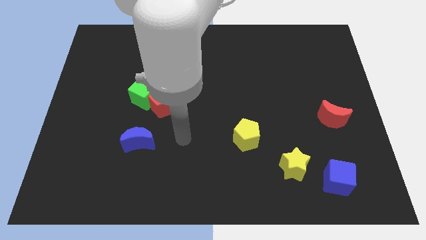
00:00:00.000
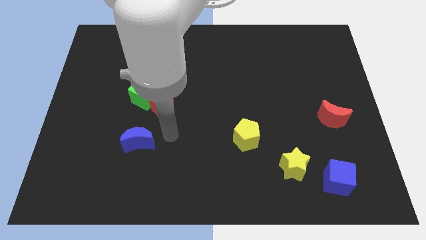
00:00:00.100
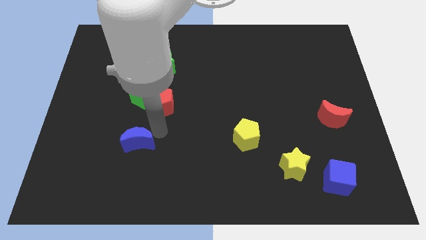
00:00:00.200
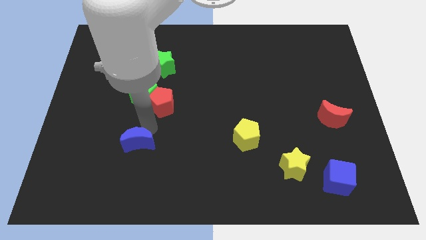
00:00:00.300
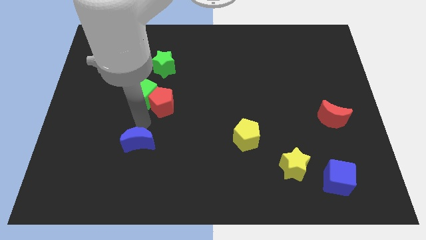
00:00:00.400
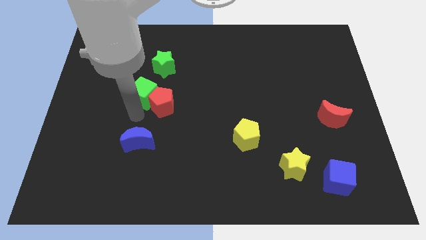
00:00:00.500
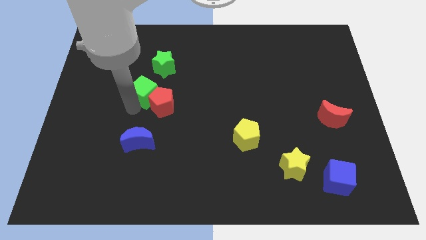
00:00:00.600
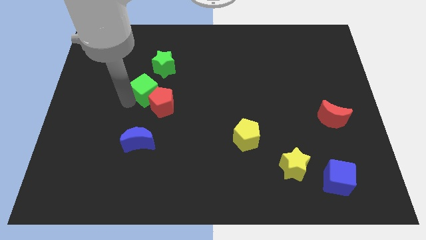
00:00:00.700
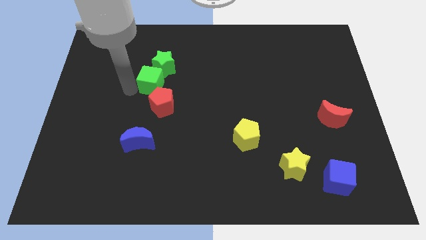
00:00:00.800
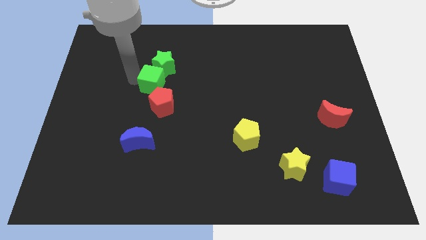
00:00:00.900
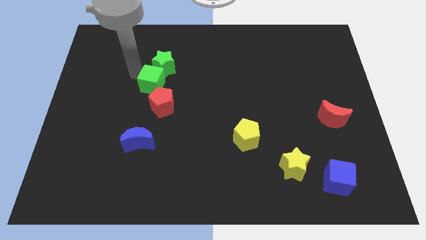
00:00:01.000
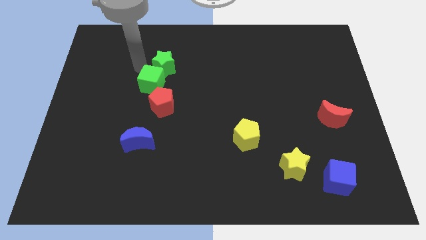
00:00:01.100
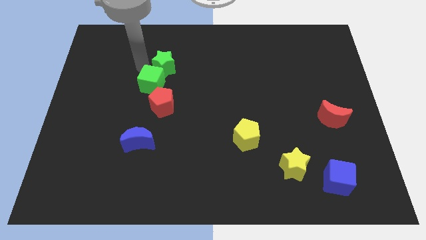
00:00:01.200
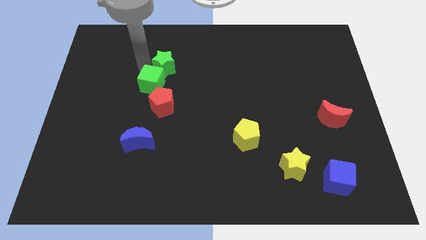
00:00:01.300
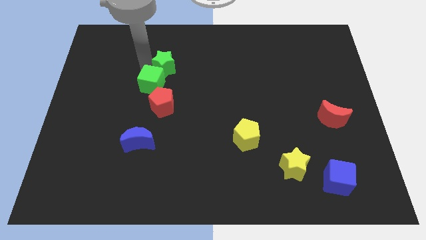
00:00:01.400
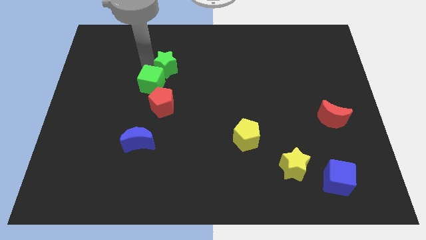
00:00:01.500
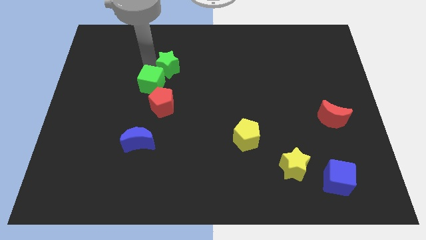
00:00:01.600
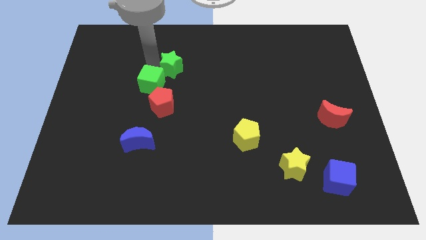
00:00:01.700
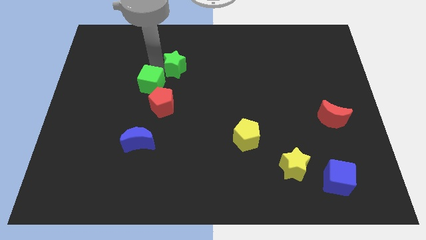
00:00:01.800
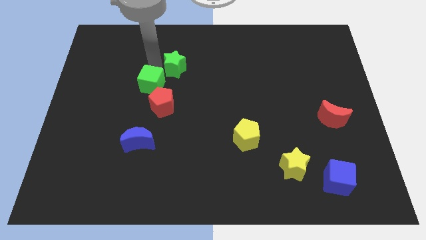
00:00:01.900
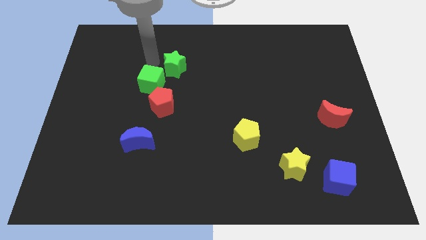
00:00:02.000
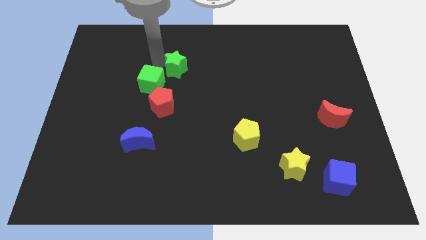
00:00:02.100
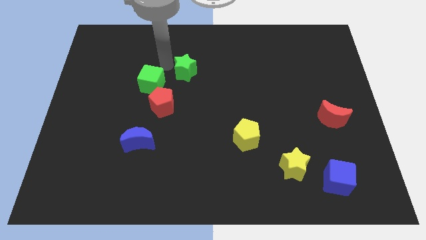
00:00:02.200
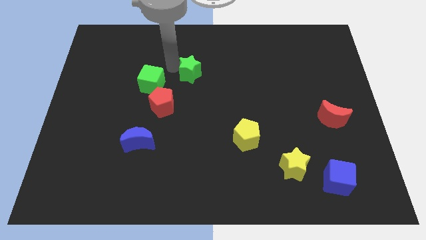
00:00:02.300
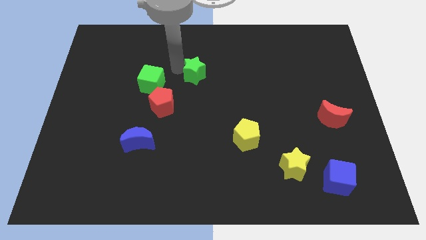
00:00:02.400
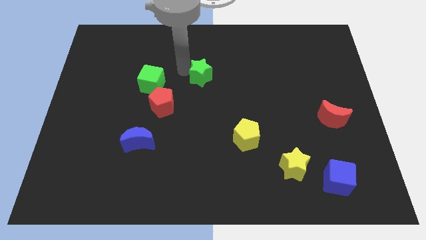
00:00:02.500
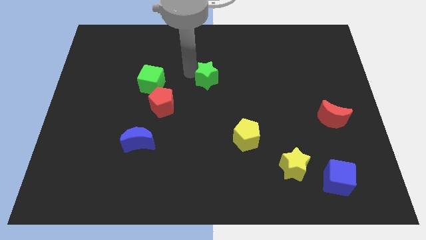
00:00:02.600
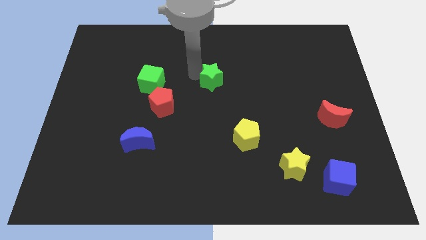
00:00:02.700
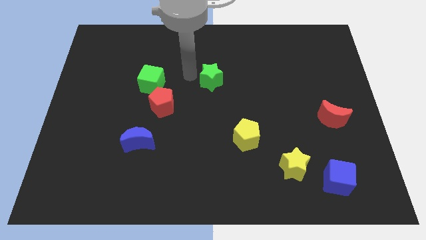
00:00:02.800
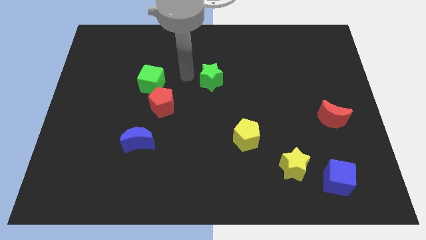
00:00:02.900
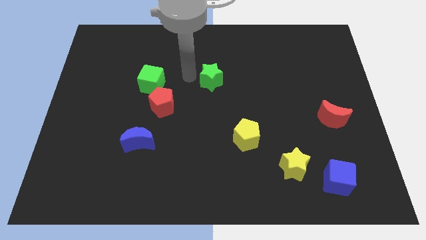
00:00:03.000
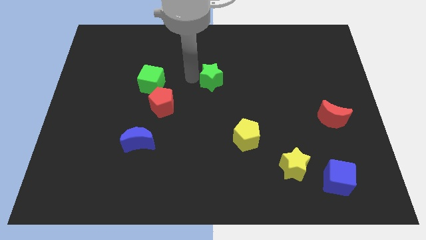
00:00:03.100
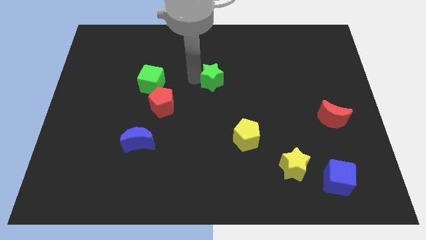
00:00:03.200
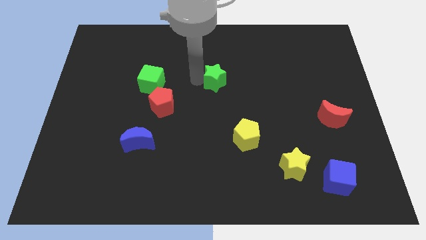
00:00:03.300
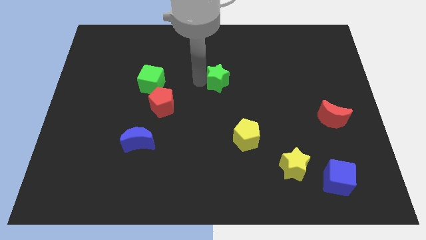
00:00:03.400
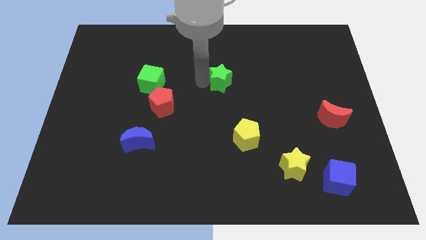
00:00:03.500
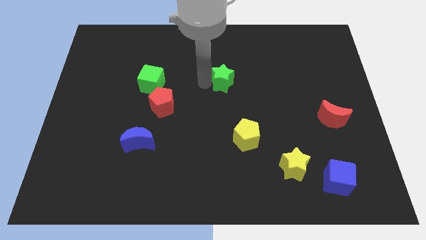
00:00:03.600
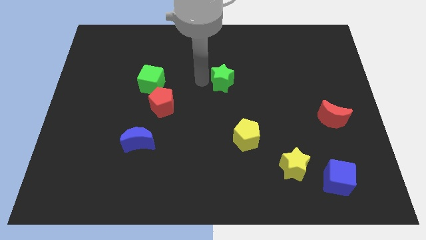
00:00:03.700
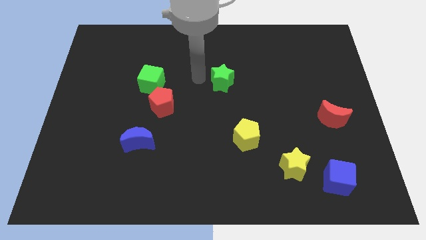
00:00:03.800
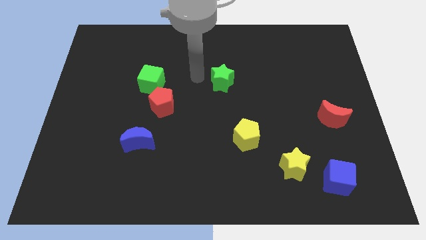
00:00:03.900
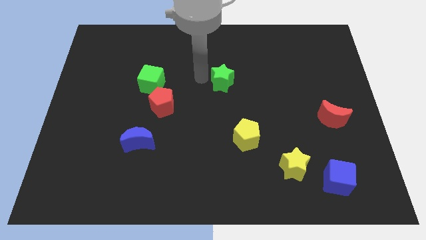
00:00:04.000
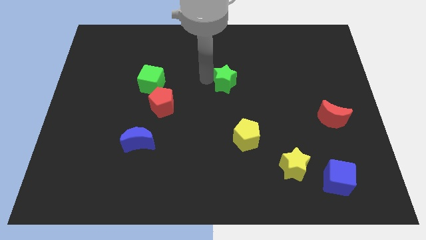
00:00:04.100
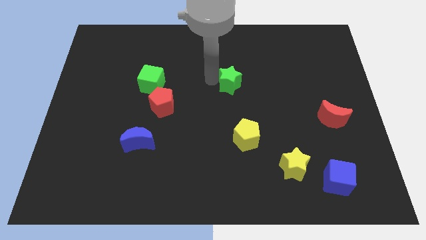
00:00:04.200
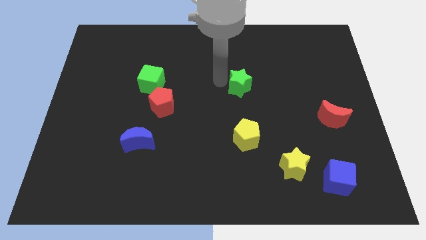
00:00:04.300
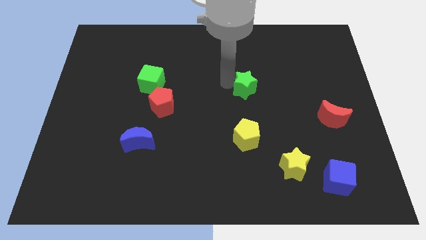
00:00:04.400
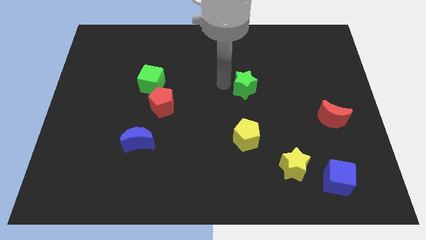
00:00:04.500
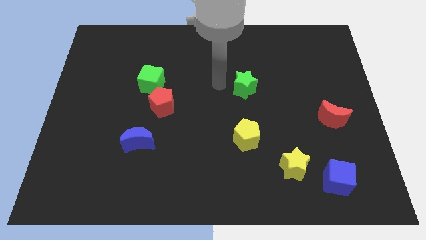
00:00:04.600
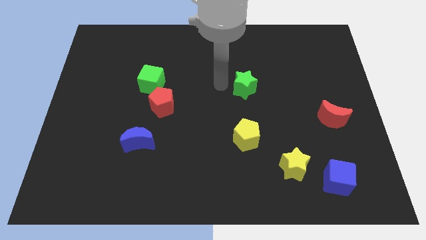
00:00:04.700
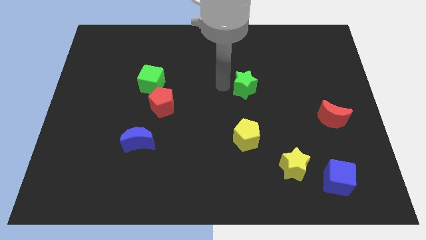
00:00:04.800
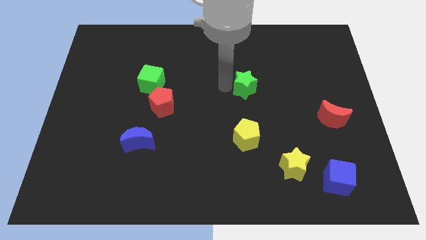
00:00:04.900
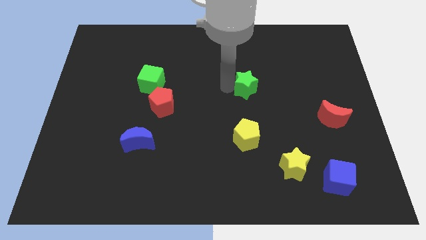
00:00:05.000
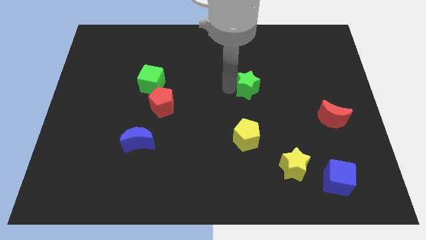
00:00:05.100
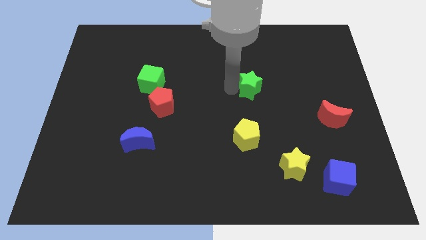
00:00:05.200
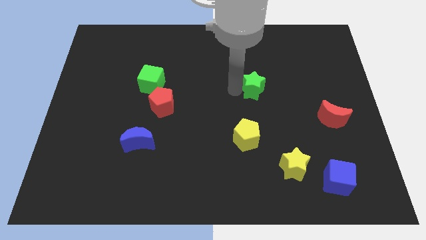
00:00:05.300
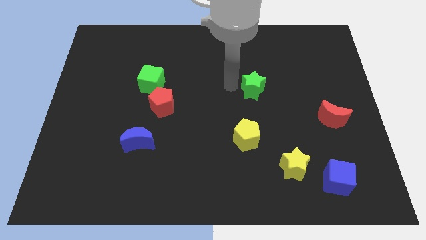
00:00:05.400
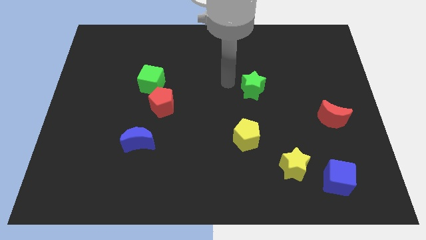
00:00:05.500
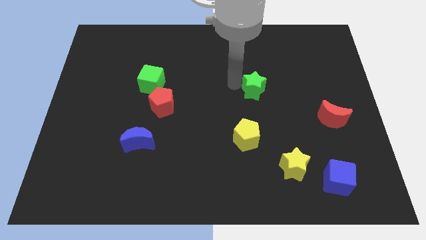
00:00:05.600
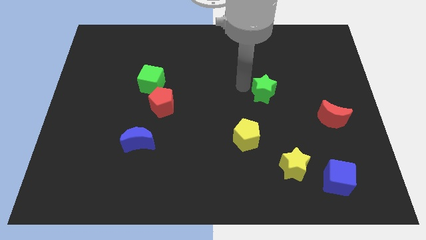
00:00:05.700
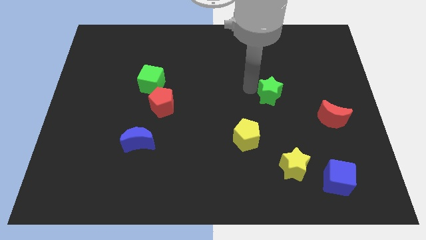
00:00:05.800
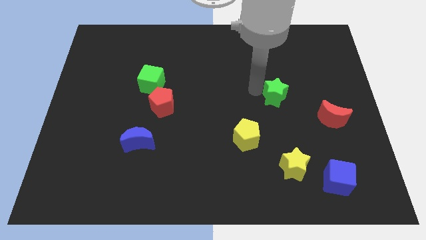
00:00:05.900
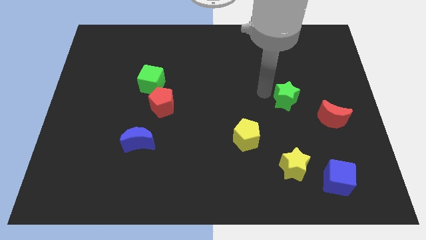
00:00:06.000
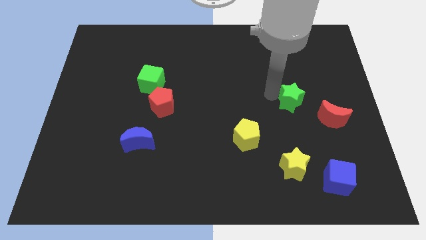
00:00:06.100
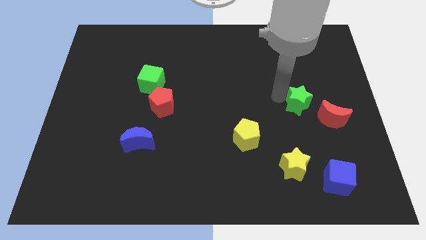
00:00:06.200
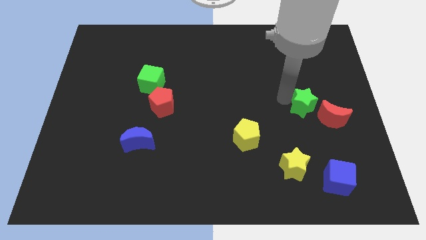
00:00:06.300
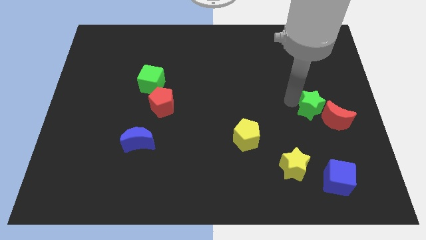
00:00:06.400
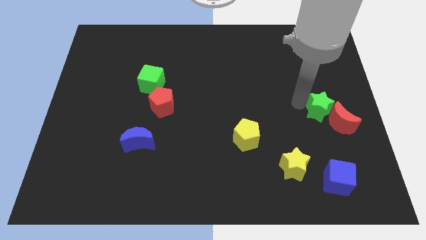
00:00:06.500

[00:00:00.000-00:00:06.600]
slide the green star towards the red moon

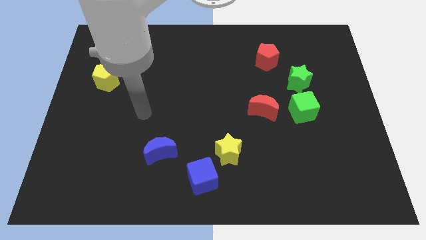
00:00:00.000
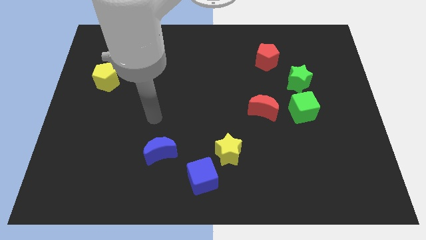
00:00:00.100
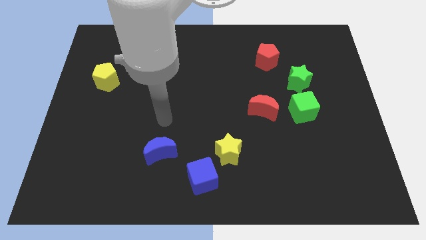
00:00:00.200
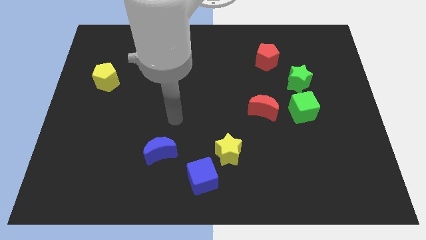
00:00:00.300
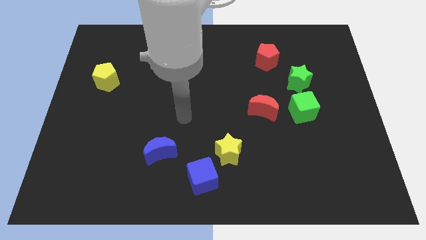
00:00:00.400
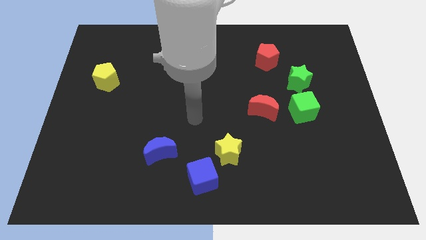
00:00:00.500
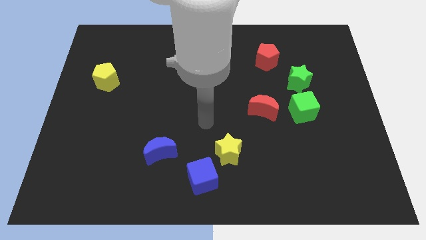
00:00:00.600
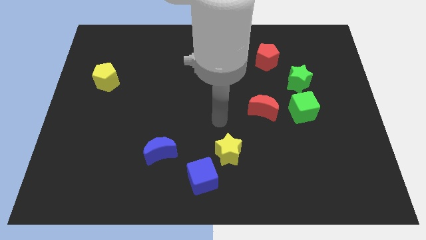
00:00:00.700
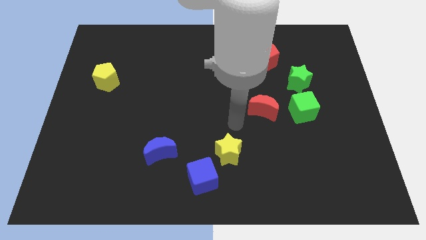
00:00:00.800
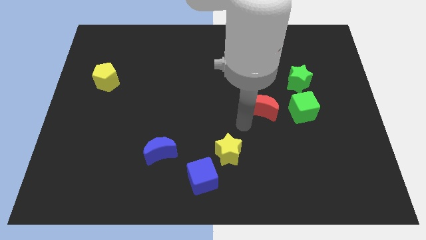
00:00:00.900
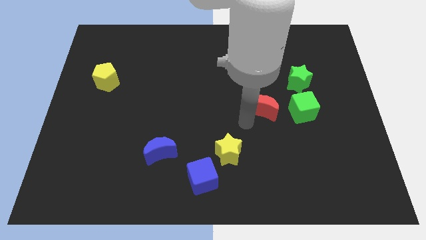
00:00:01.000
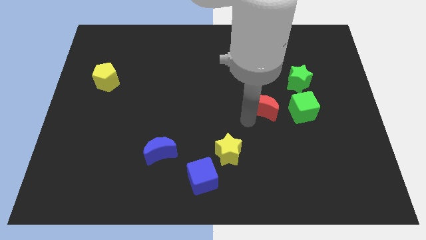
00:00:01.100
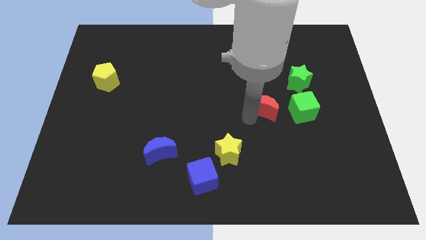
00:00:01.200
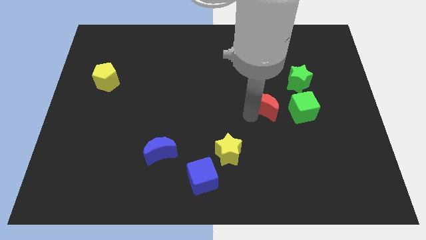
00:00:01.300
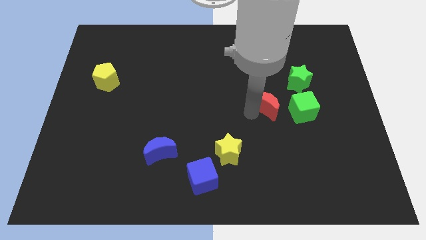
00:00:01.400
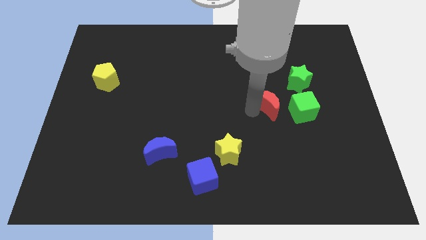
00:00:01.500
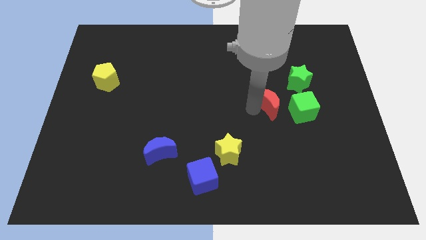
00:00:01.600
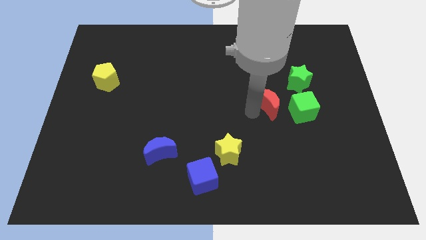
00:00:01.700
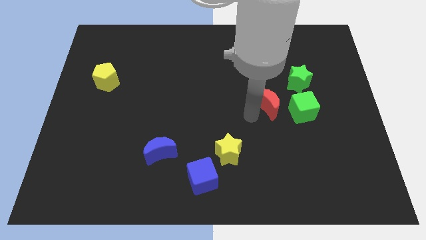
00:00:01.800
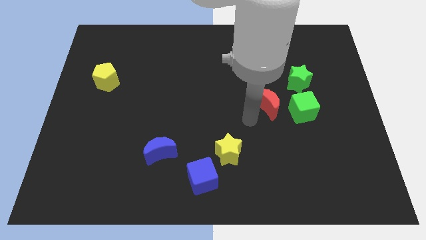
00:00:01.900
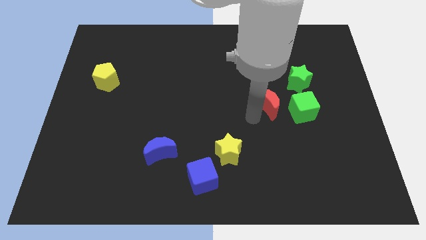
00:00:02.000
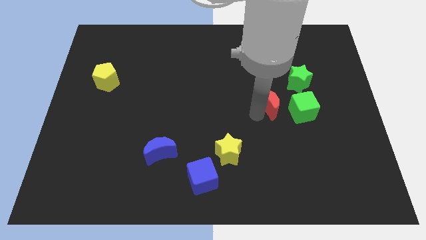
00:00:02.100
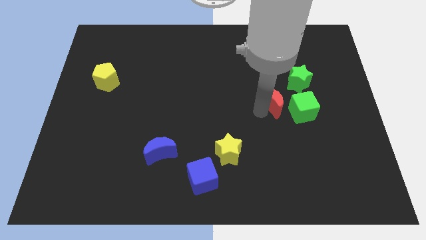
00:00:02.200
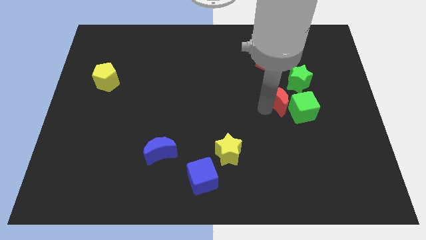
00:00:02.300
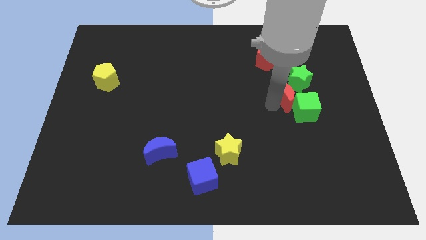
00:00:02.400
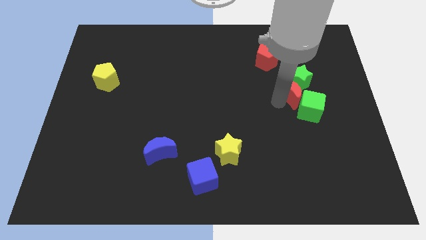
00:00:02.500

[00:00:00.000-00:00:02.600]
push the red moon towards the green star
